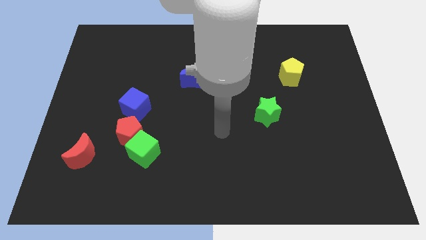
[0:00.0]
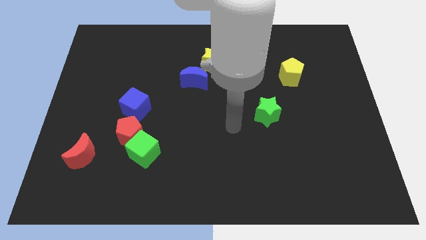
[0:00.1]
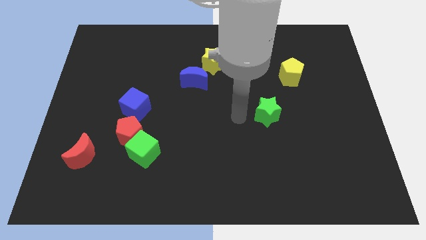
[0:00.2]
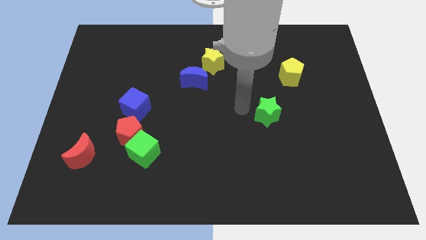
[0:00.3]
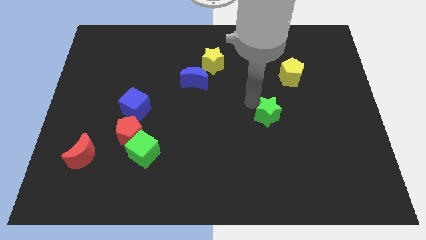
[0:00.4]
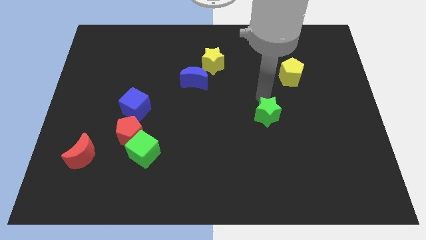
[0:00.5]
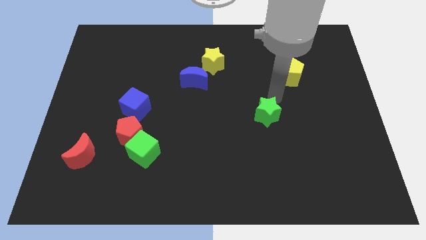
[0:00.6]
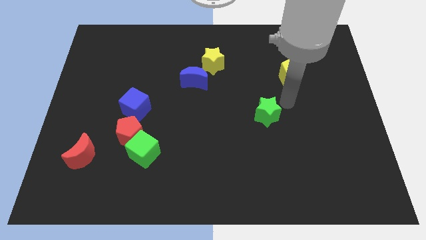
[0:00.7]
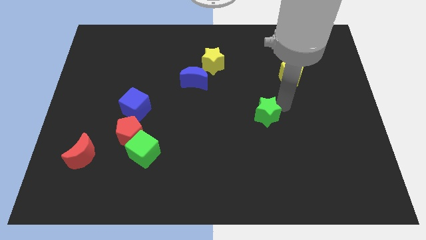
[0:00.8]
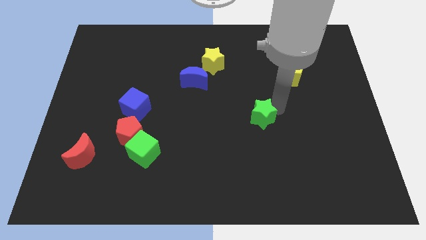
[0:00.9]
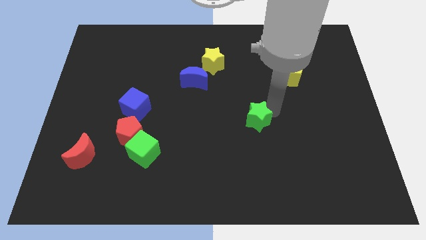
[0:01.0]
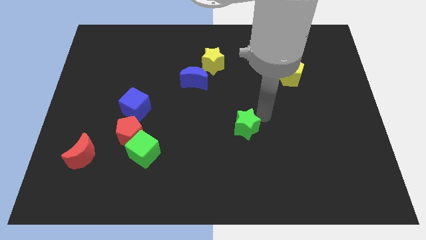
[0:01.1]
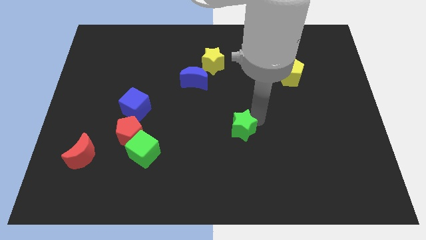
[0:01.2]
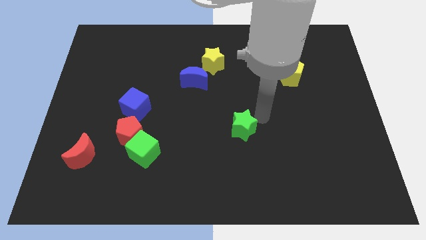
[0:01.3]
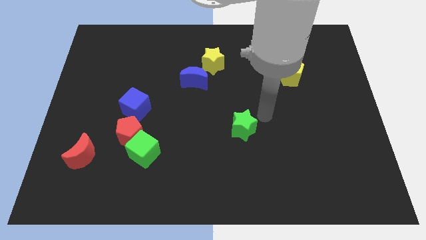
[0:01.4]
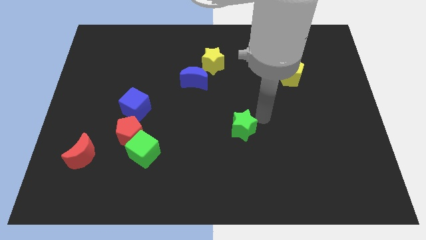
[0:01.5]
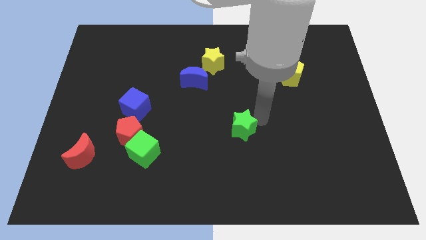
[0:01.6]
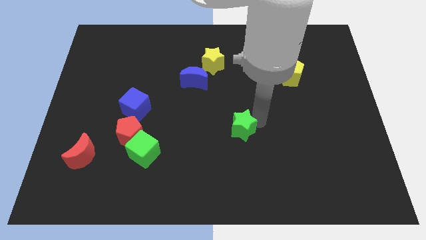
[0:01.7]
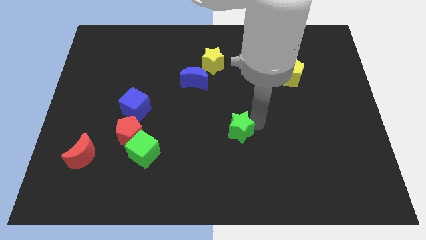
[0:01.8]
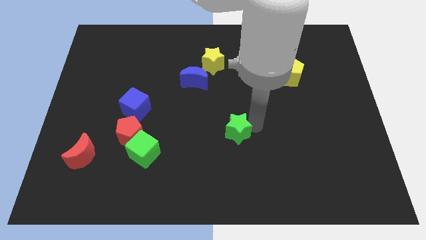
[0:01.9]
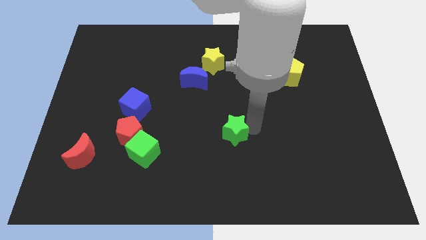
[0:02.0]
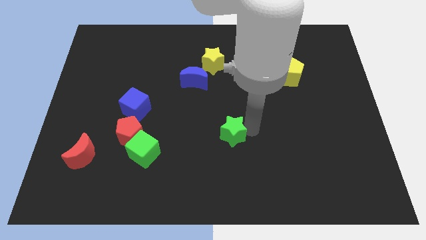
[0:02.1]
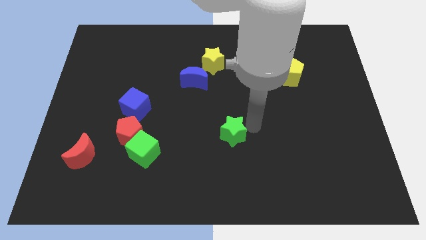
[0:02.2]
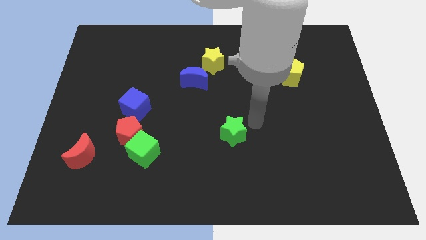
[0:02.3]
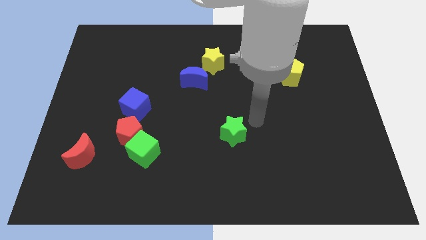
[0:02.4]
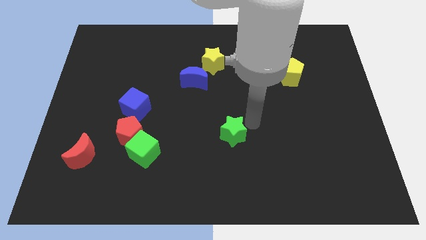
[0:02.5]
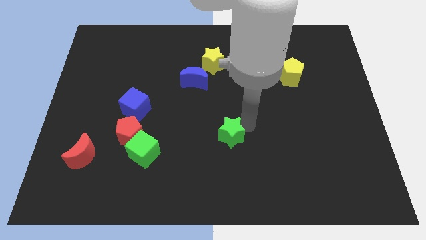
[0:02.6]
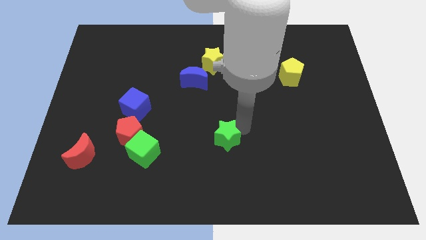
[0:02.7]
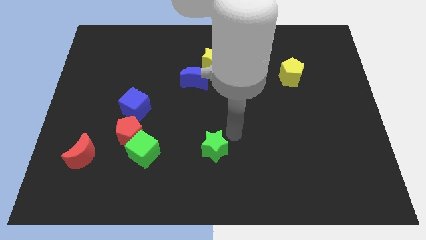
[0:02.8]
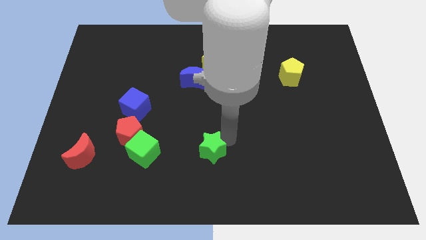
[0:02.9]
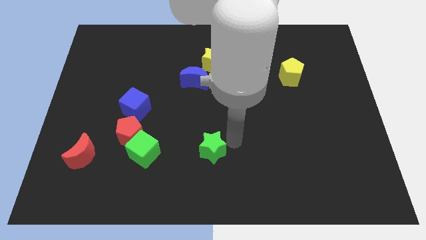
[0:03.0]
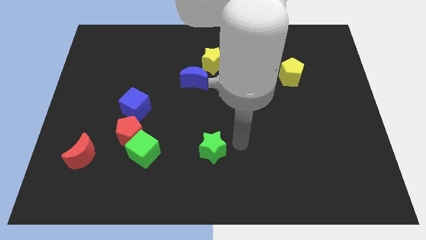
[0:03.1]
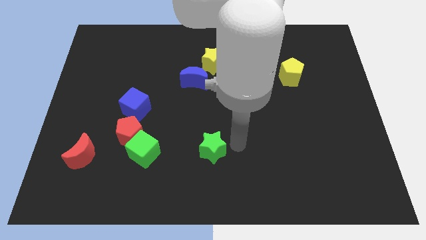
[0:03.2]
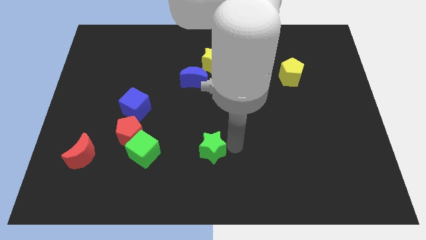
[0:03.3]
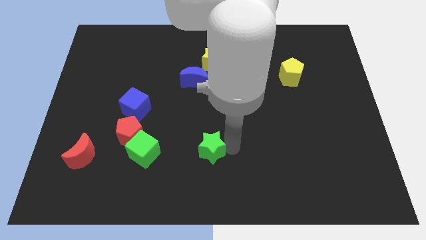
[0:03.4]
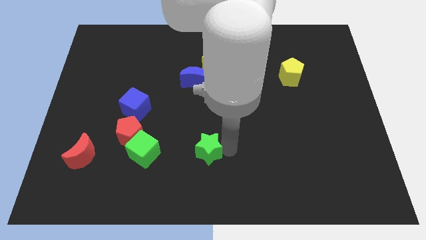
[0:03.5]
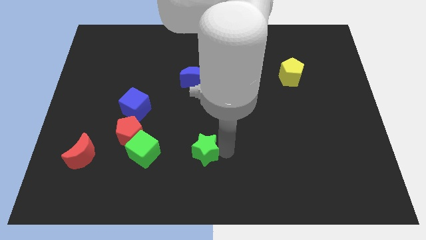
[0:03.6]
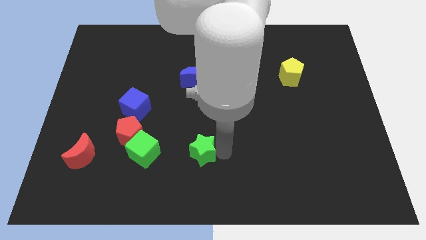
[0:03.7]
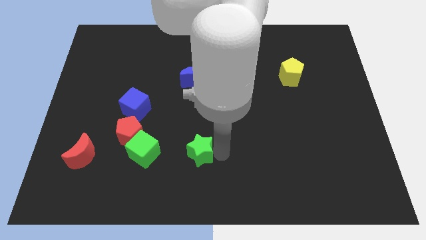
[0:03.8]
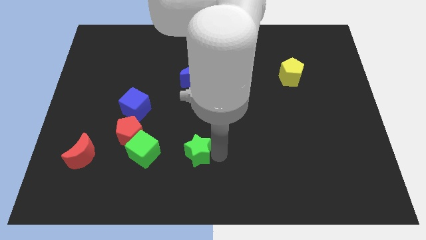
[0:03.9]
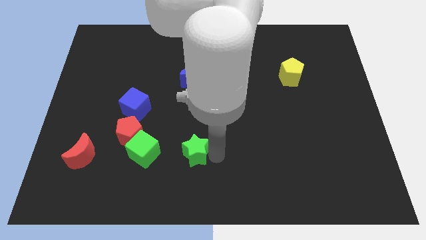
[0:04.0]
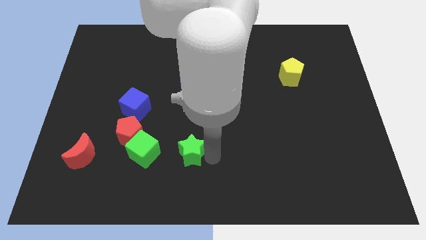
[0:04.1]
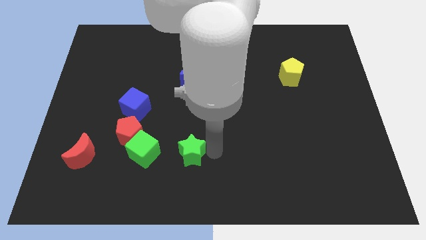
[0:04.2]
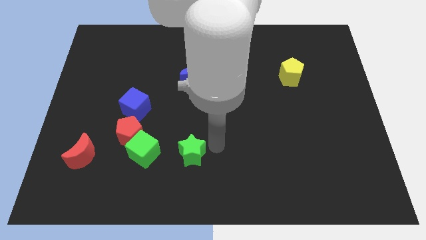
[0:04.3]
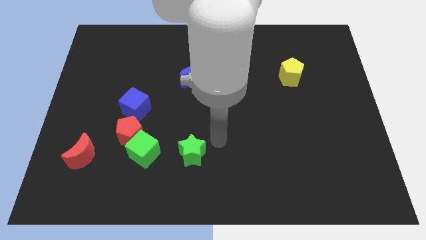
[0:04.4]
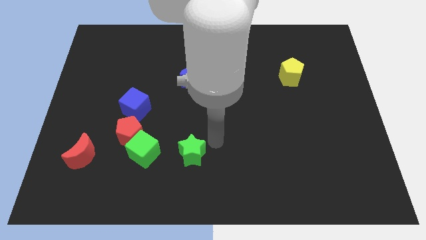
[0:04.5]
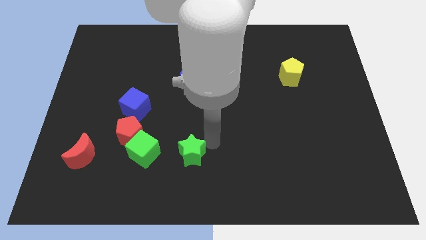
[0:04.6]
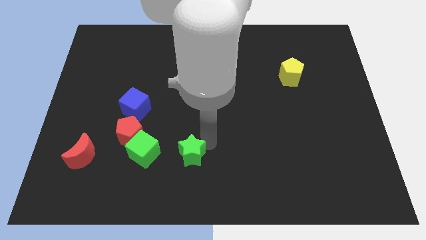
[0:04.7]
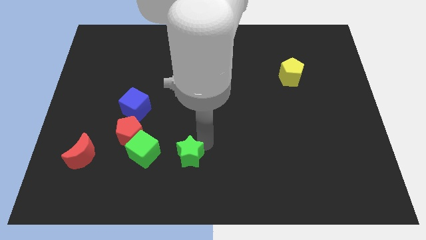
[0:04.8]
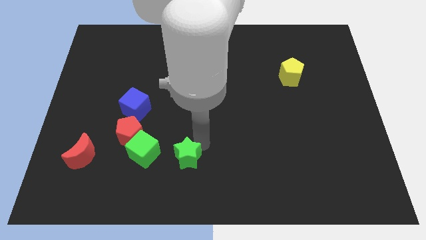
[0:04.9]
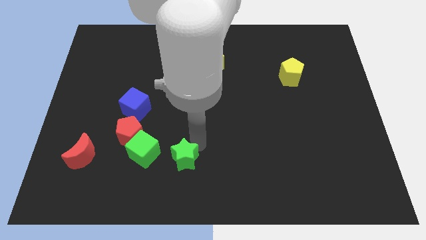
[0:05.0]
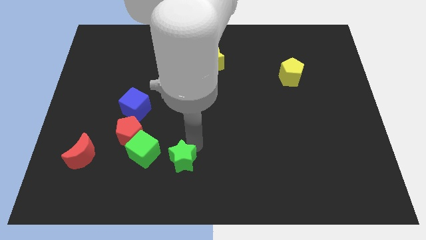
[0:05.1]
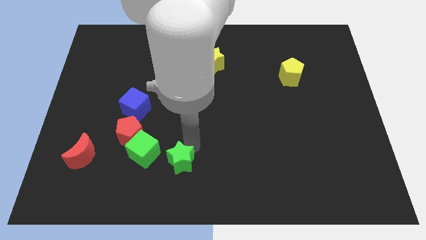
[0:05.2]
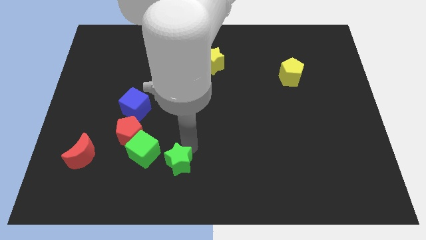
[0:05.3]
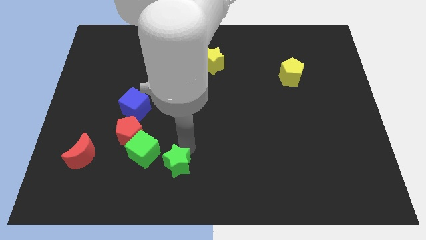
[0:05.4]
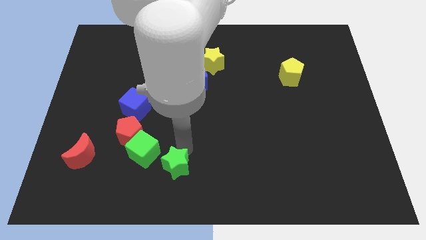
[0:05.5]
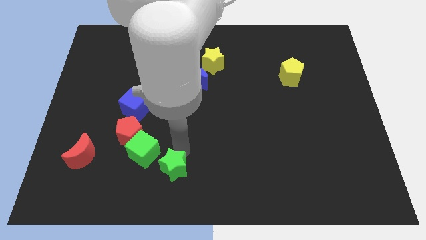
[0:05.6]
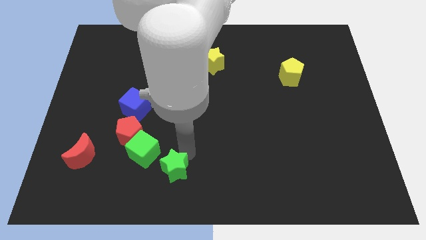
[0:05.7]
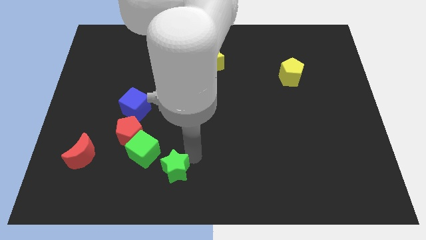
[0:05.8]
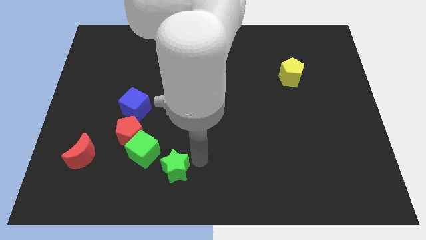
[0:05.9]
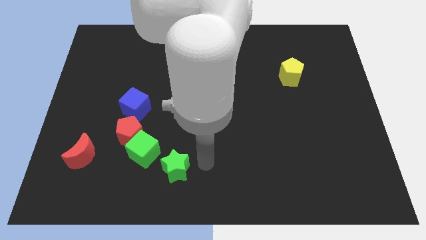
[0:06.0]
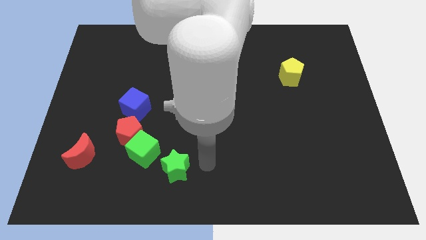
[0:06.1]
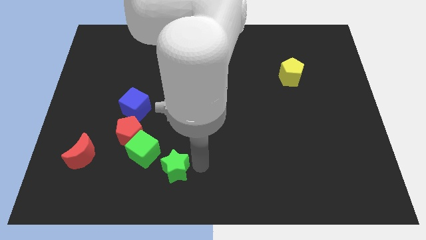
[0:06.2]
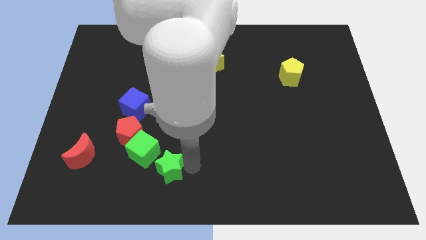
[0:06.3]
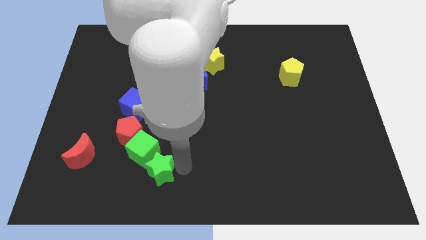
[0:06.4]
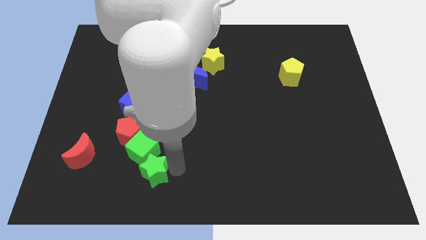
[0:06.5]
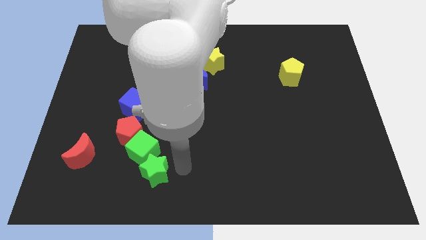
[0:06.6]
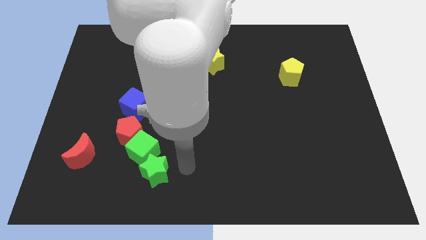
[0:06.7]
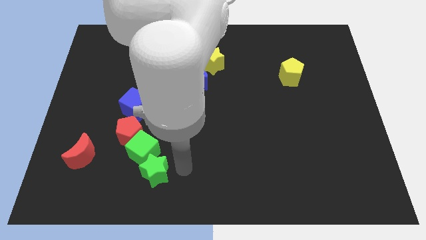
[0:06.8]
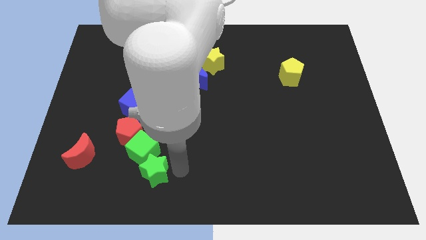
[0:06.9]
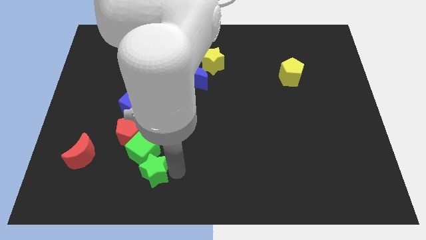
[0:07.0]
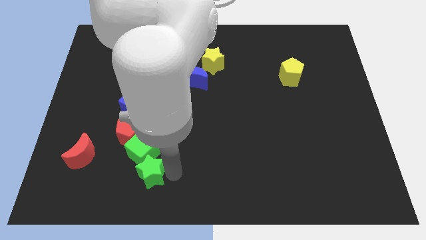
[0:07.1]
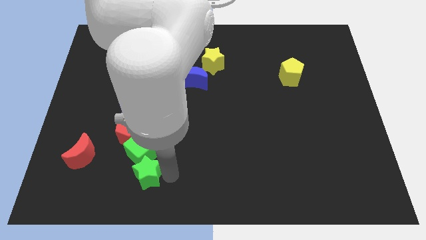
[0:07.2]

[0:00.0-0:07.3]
slide the green star to the bottom of the red pentagon

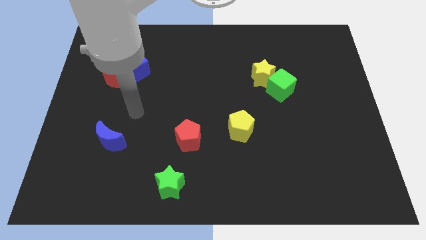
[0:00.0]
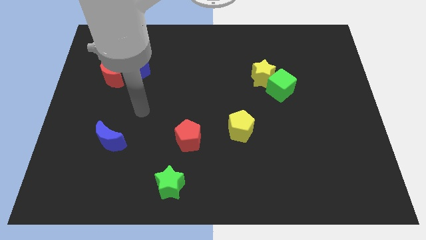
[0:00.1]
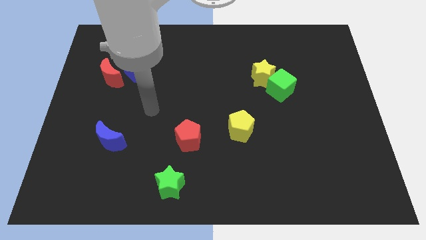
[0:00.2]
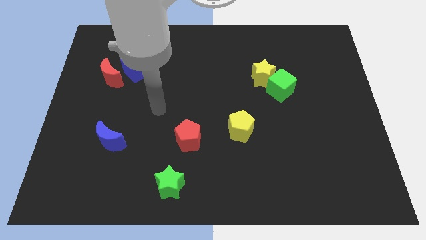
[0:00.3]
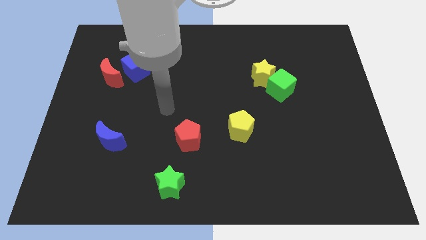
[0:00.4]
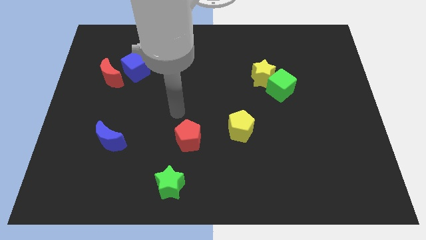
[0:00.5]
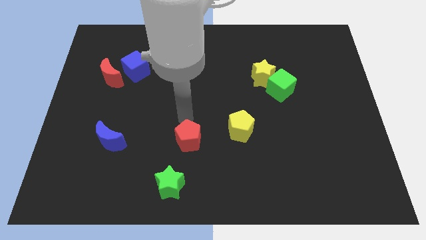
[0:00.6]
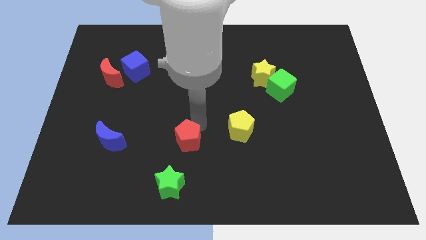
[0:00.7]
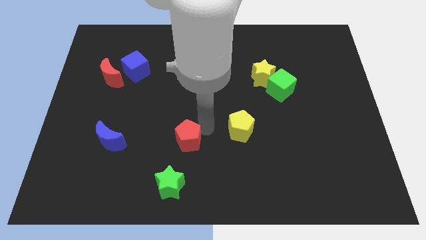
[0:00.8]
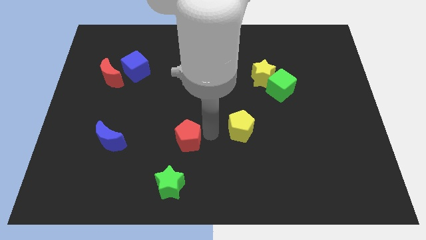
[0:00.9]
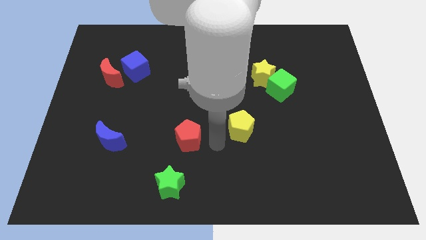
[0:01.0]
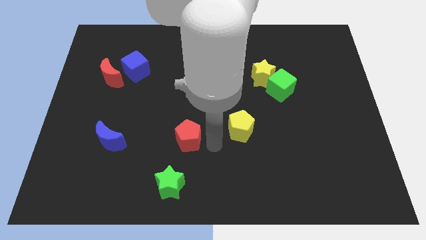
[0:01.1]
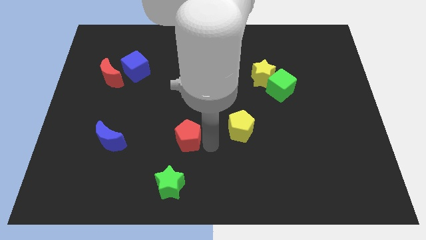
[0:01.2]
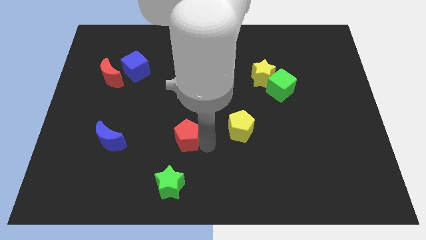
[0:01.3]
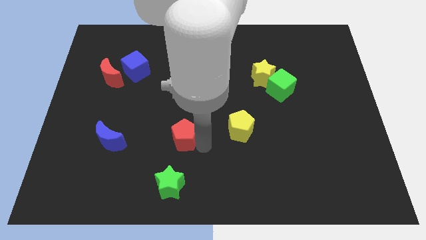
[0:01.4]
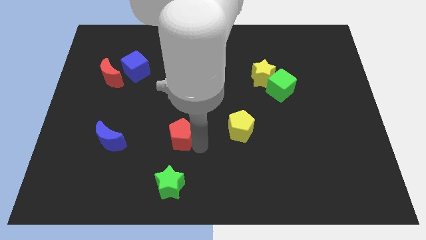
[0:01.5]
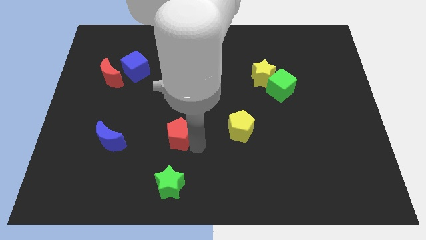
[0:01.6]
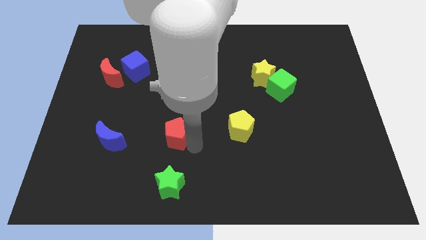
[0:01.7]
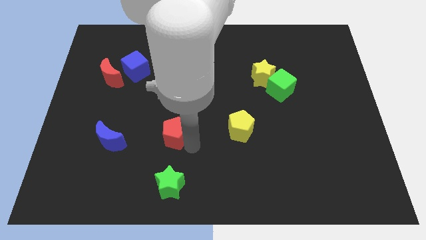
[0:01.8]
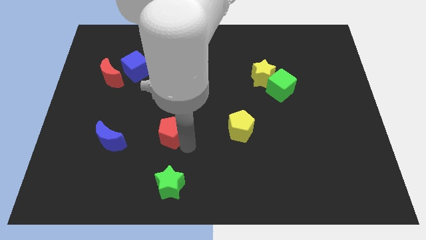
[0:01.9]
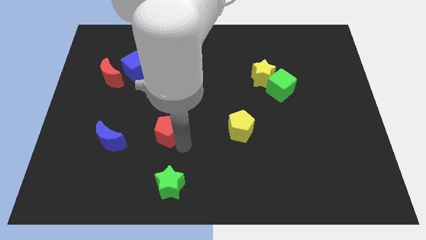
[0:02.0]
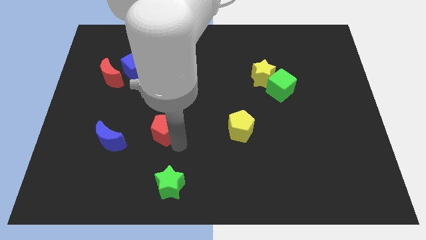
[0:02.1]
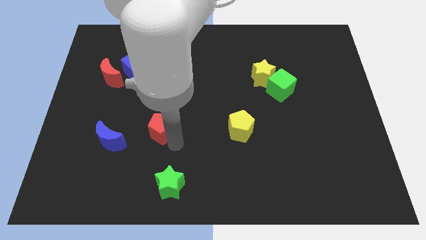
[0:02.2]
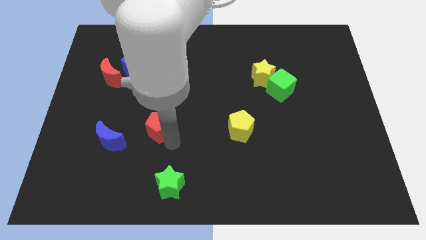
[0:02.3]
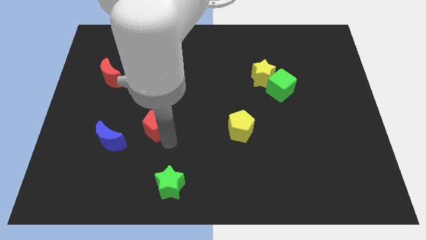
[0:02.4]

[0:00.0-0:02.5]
put the red pentagon diagonally up and to the right of the blue moon
